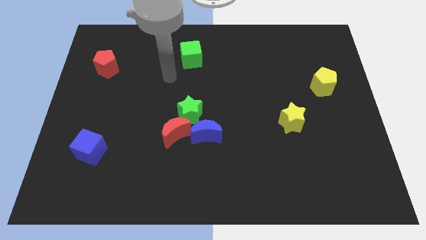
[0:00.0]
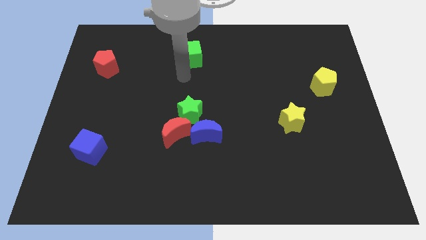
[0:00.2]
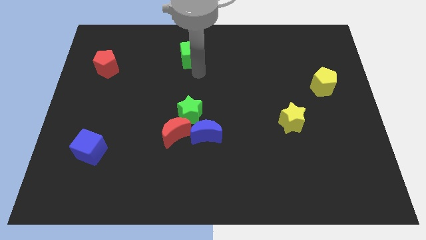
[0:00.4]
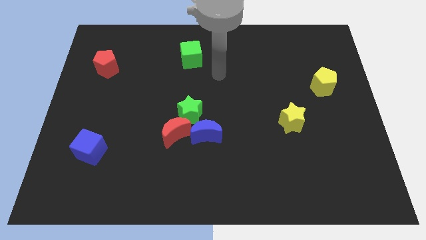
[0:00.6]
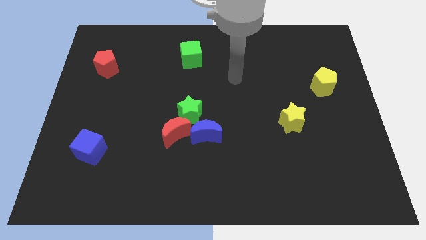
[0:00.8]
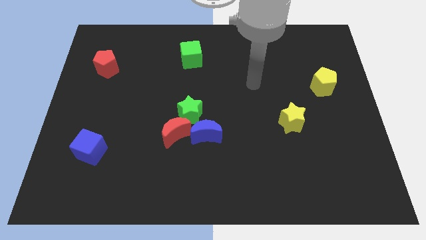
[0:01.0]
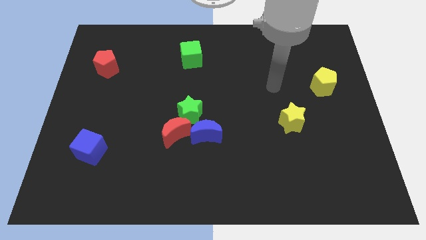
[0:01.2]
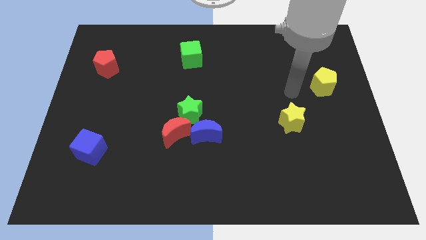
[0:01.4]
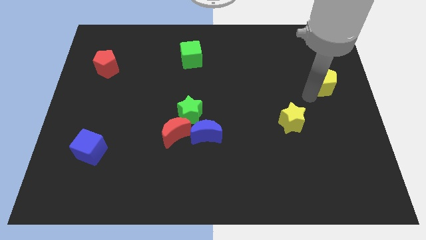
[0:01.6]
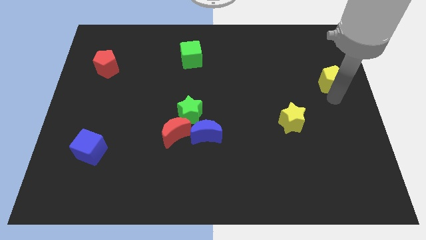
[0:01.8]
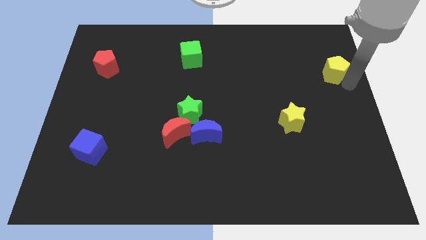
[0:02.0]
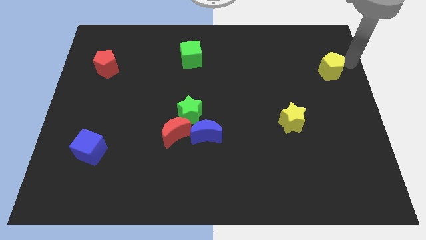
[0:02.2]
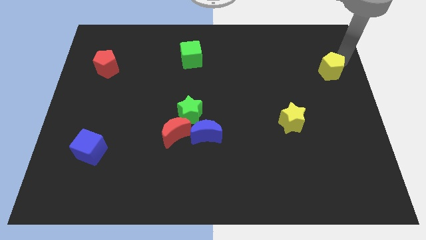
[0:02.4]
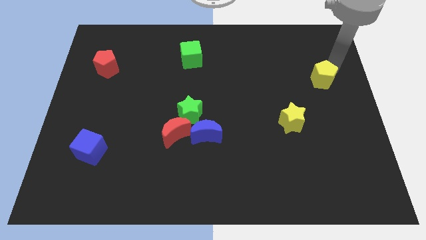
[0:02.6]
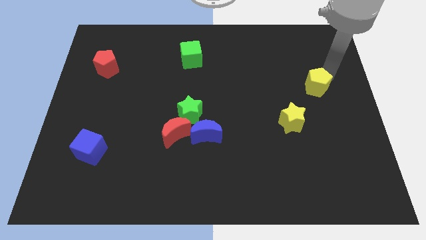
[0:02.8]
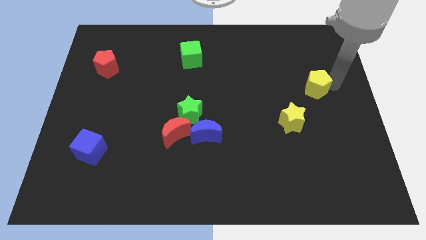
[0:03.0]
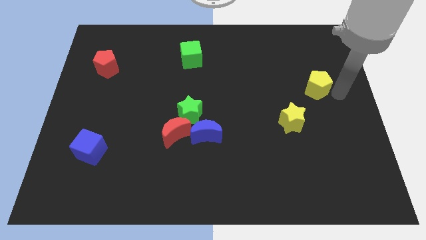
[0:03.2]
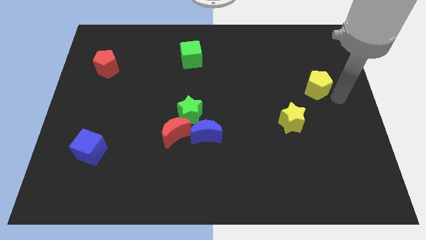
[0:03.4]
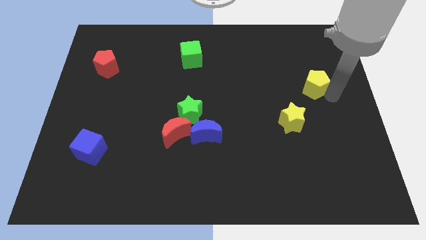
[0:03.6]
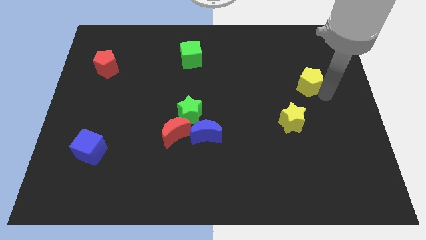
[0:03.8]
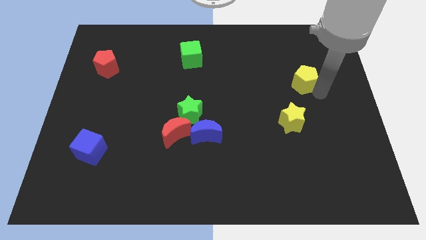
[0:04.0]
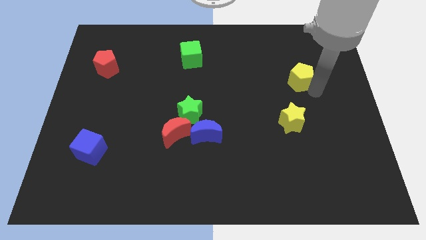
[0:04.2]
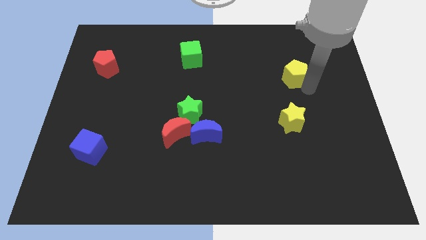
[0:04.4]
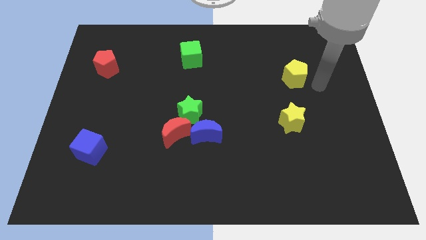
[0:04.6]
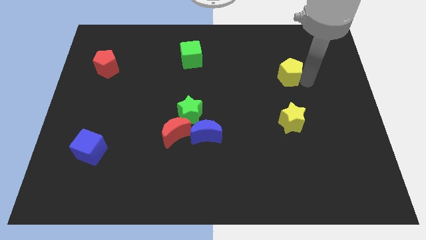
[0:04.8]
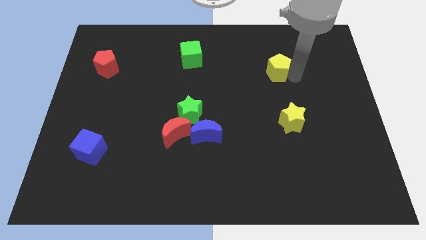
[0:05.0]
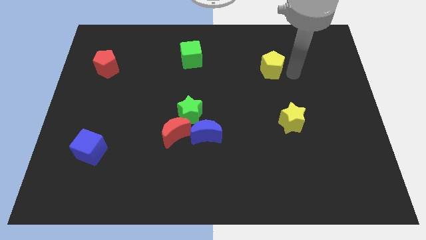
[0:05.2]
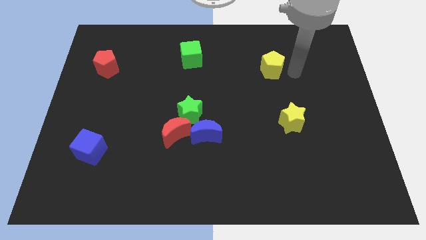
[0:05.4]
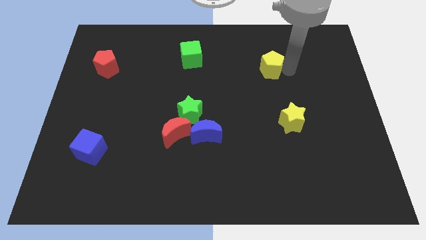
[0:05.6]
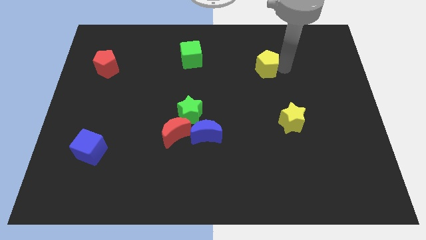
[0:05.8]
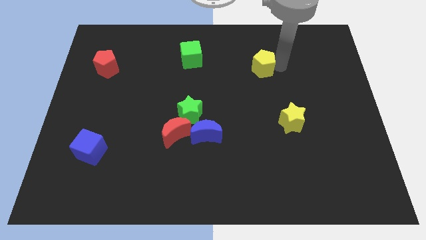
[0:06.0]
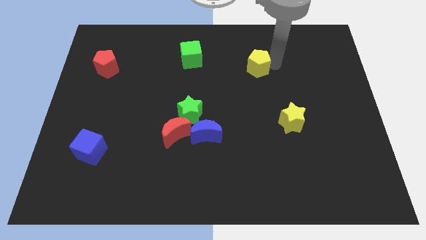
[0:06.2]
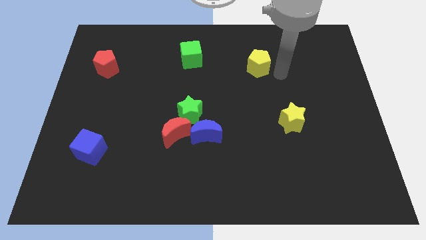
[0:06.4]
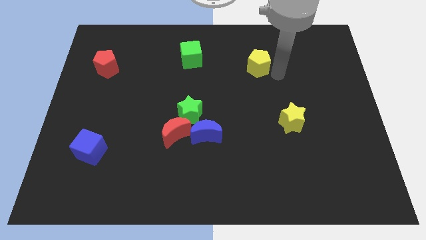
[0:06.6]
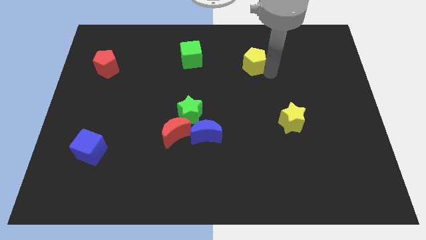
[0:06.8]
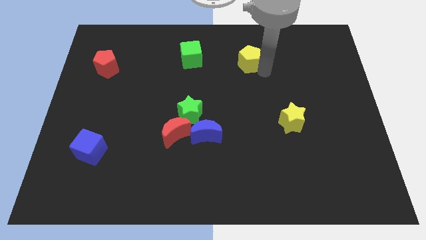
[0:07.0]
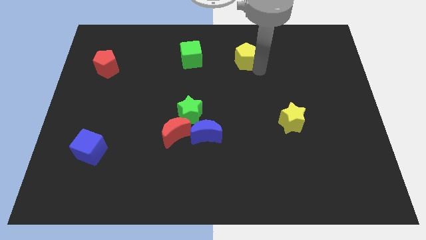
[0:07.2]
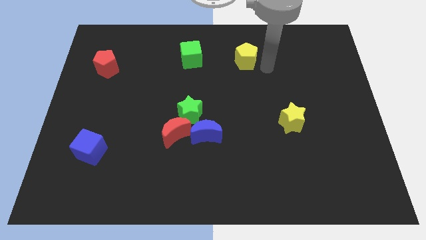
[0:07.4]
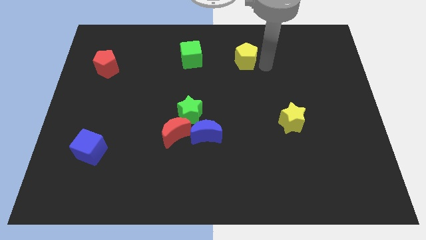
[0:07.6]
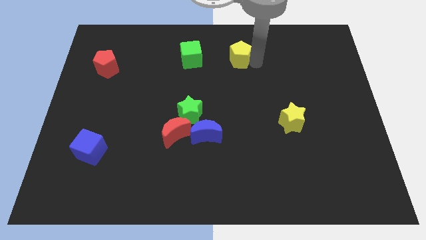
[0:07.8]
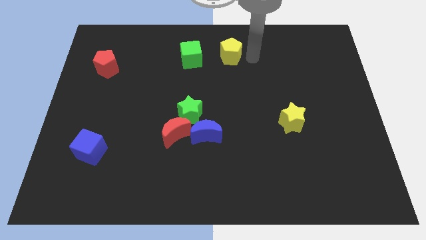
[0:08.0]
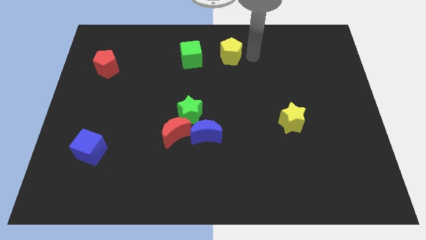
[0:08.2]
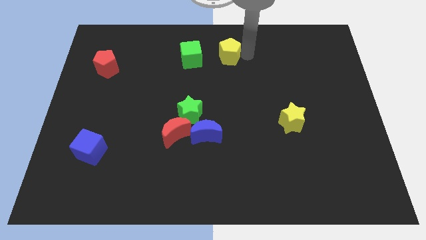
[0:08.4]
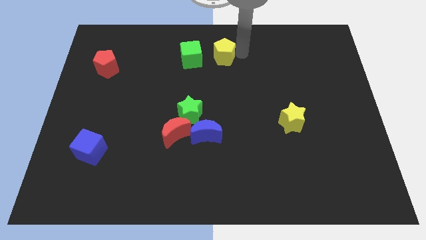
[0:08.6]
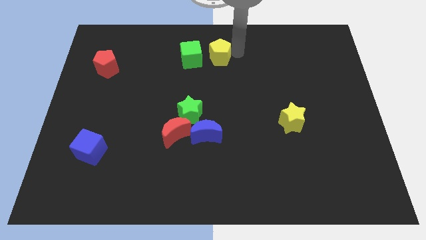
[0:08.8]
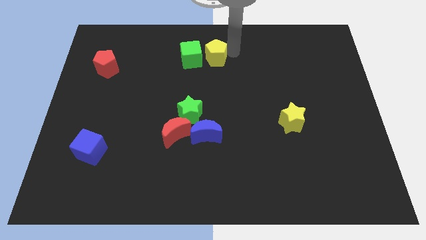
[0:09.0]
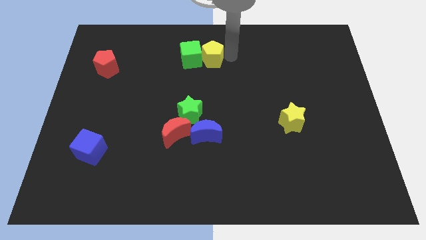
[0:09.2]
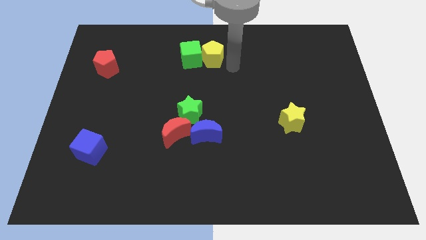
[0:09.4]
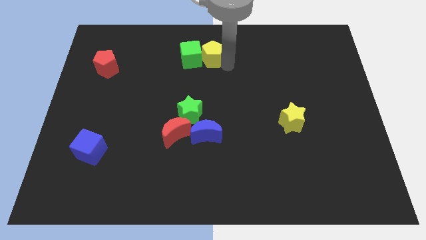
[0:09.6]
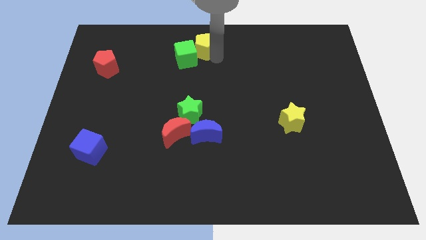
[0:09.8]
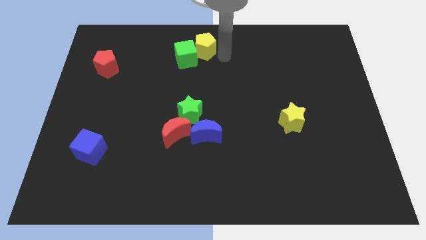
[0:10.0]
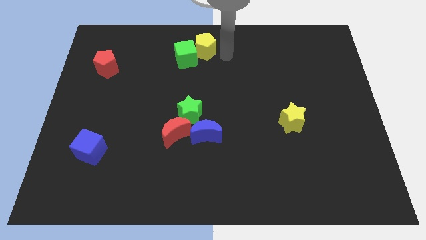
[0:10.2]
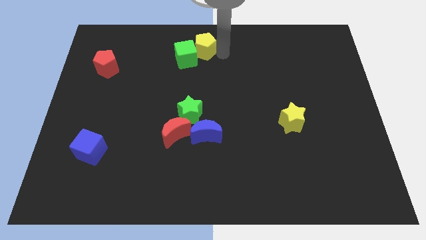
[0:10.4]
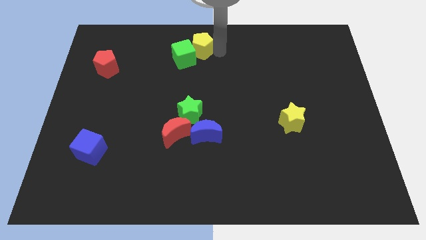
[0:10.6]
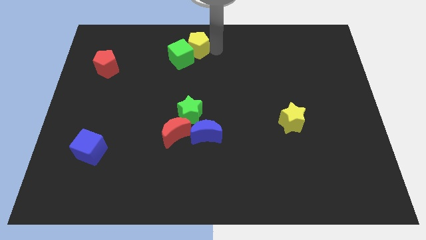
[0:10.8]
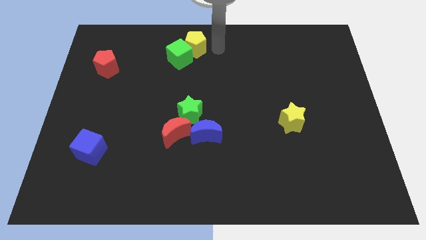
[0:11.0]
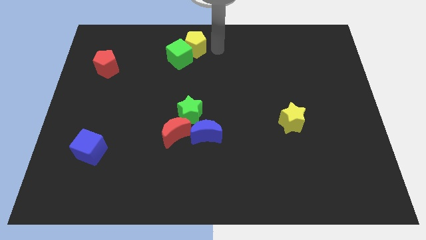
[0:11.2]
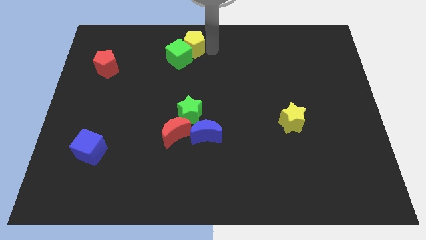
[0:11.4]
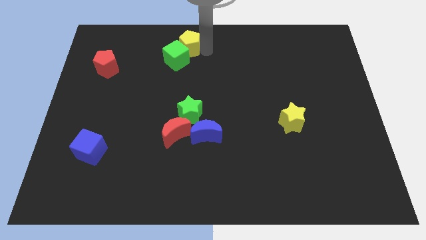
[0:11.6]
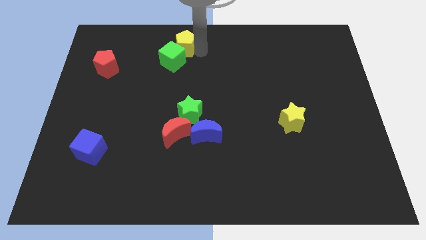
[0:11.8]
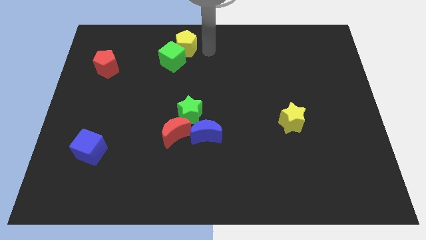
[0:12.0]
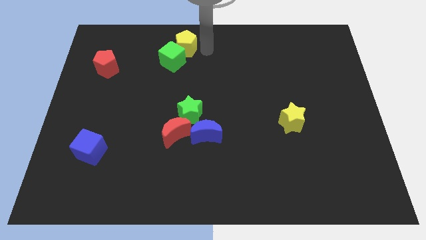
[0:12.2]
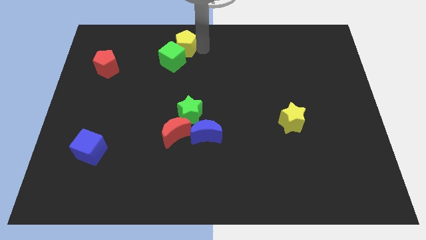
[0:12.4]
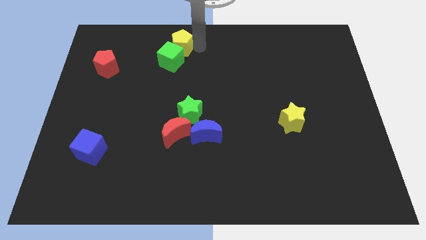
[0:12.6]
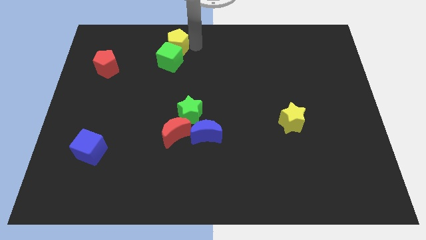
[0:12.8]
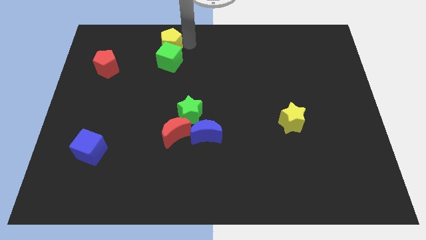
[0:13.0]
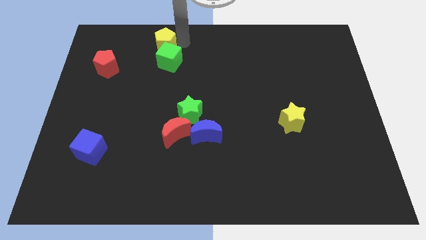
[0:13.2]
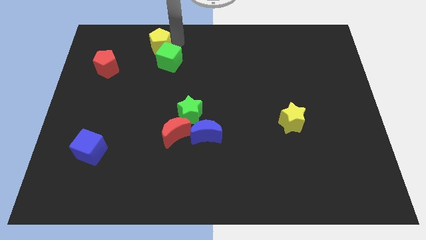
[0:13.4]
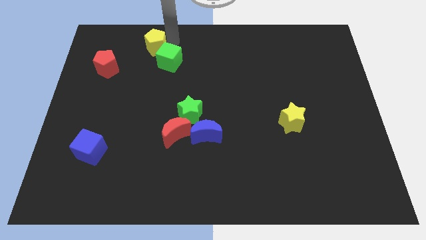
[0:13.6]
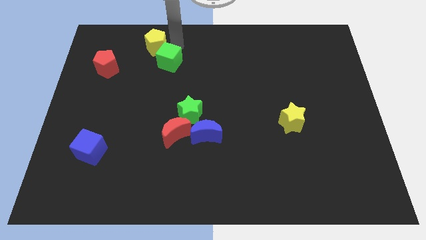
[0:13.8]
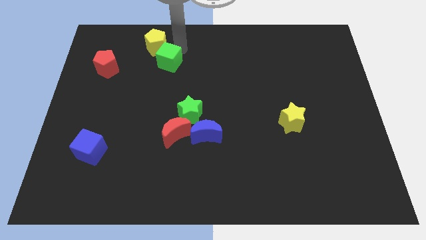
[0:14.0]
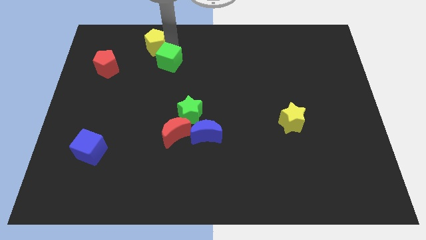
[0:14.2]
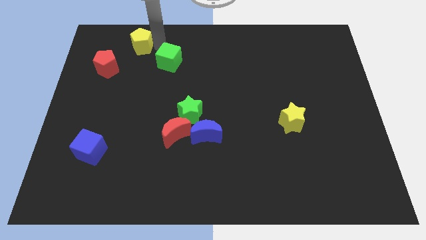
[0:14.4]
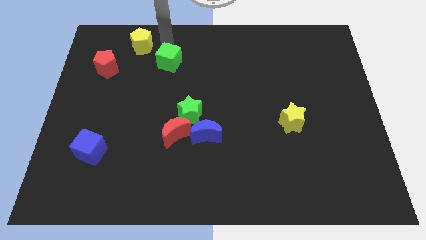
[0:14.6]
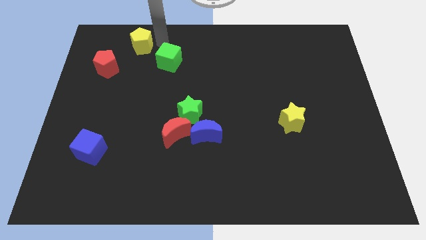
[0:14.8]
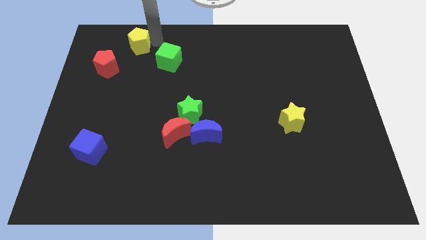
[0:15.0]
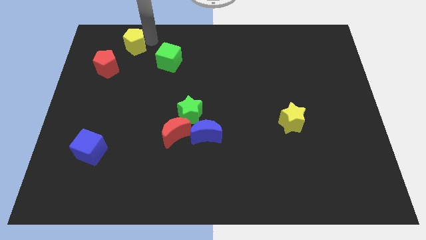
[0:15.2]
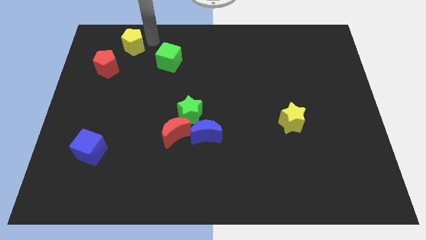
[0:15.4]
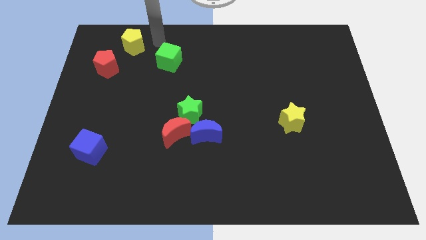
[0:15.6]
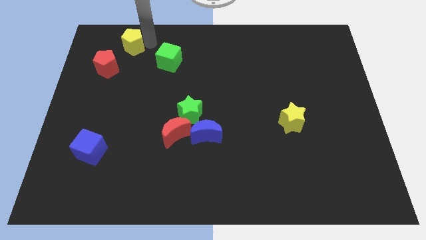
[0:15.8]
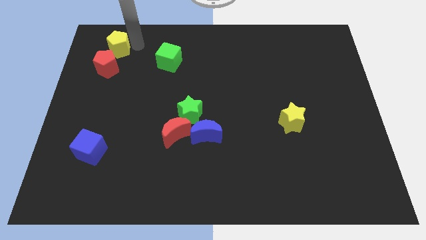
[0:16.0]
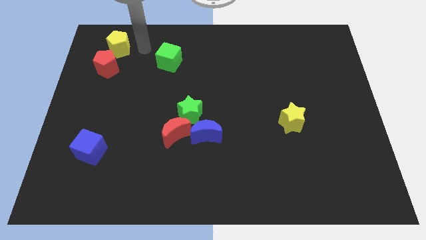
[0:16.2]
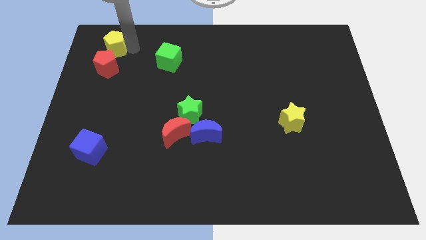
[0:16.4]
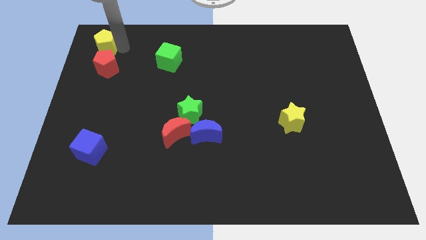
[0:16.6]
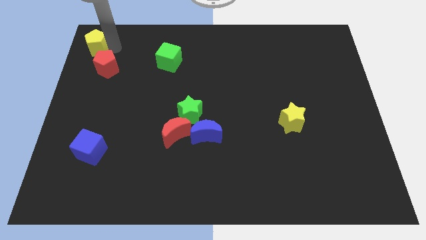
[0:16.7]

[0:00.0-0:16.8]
put the yellow pentagon to the top left
